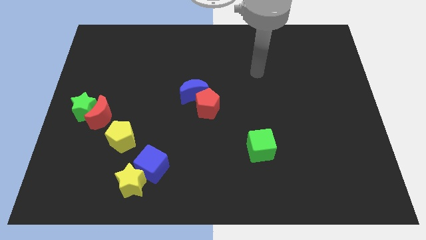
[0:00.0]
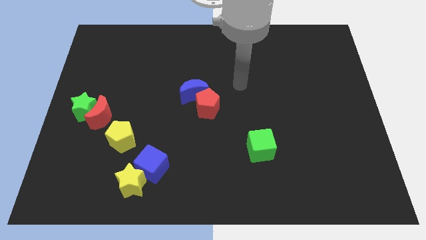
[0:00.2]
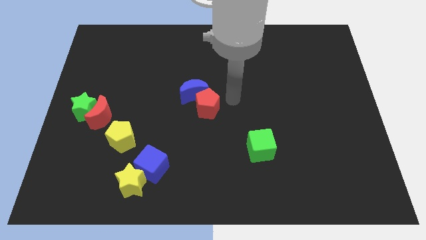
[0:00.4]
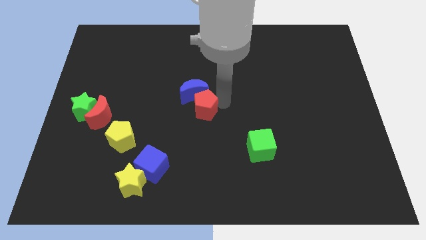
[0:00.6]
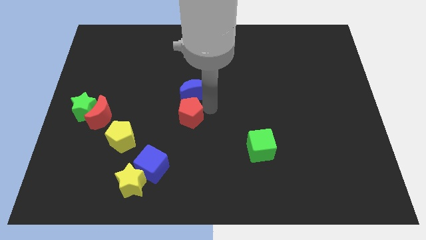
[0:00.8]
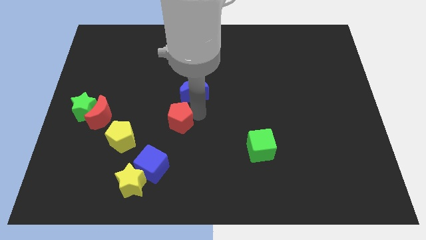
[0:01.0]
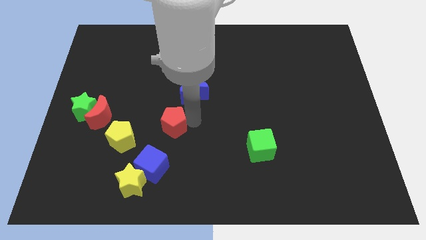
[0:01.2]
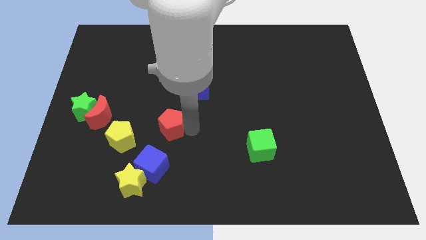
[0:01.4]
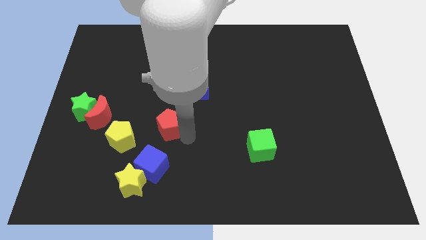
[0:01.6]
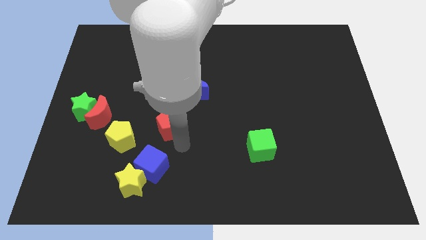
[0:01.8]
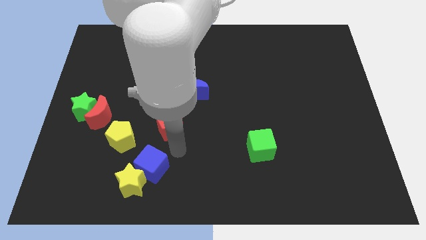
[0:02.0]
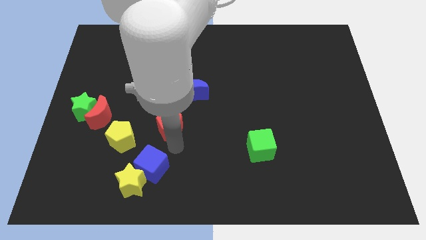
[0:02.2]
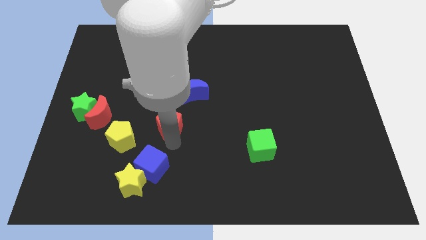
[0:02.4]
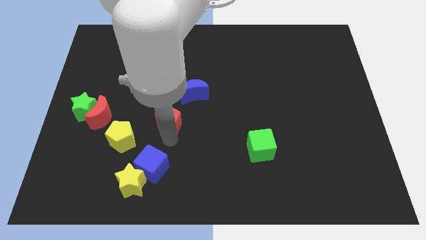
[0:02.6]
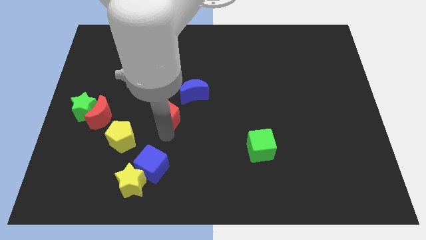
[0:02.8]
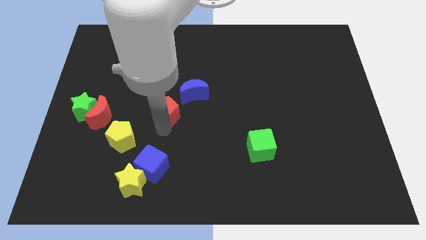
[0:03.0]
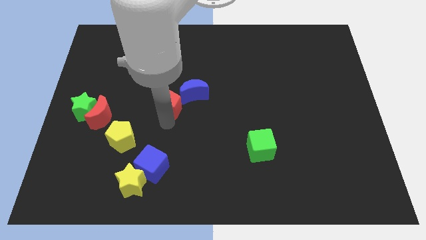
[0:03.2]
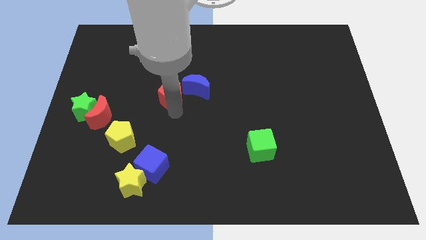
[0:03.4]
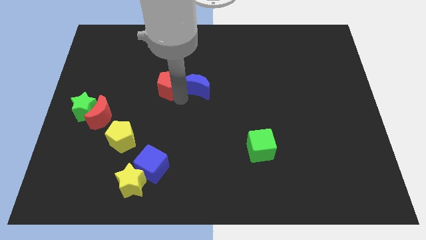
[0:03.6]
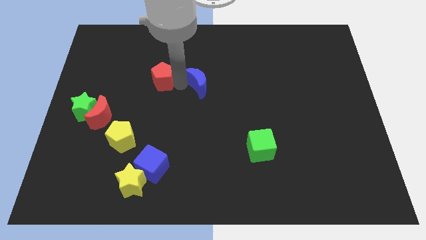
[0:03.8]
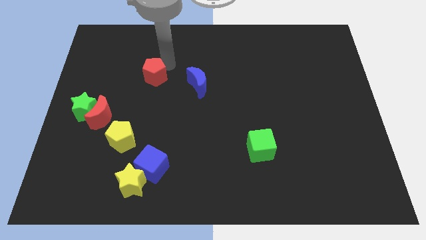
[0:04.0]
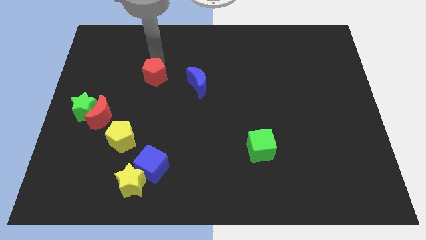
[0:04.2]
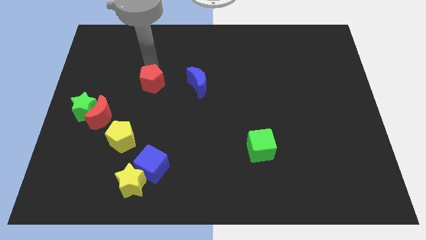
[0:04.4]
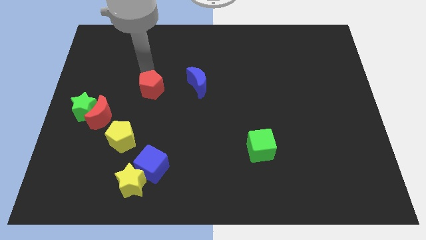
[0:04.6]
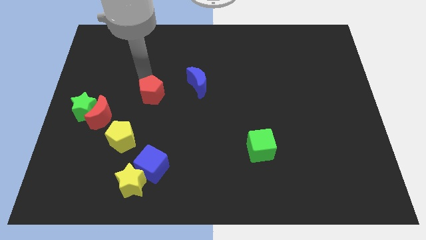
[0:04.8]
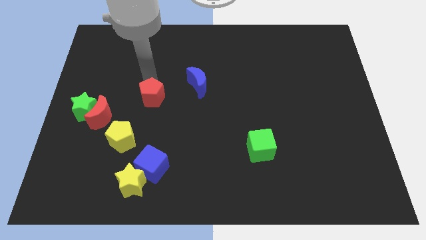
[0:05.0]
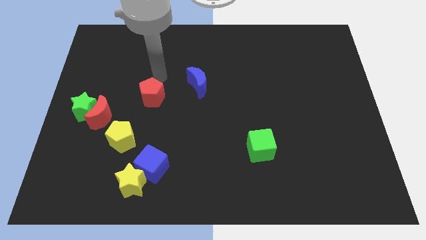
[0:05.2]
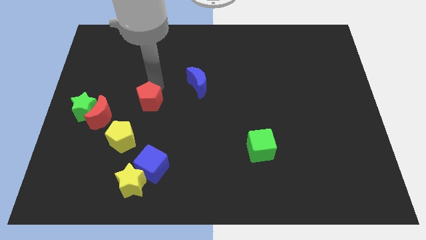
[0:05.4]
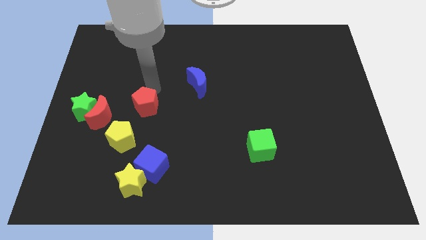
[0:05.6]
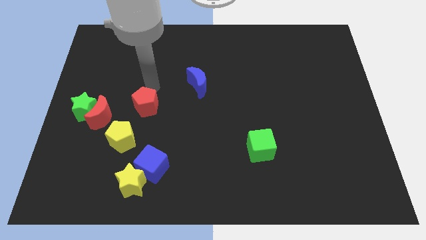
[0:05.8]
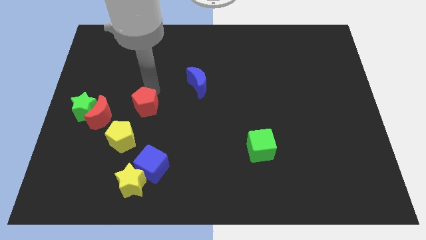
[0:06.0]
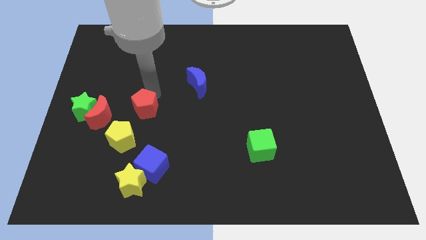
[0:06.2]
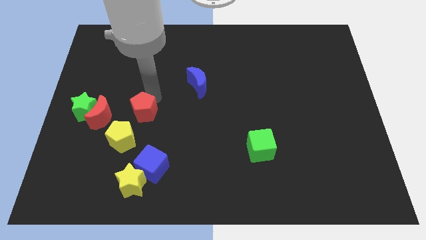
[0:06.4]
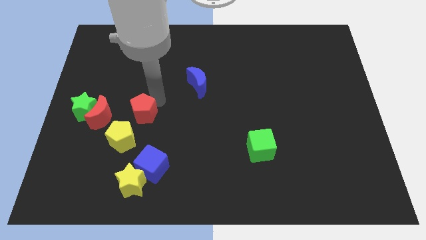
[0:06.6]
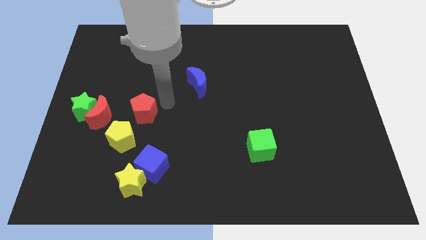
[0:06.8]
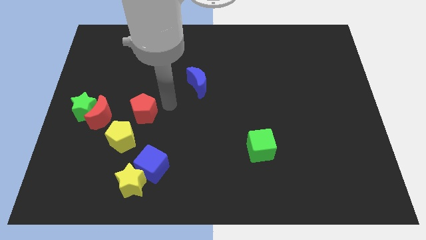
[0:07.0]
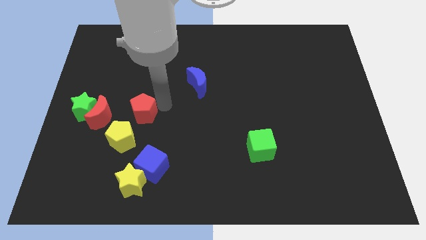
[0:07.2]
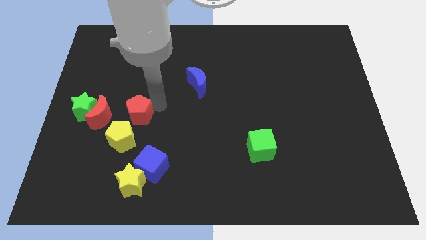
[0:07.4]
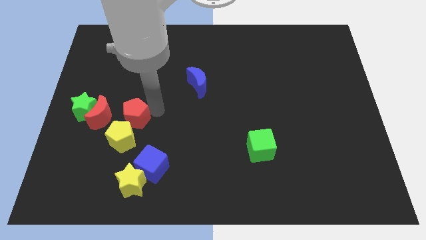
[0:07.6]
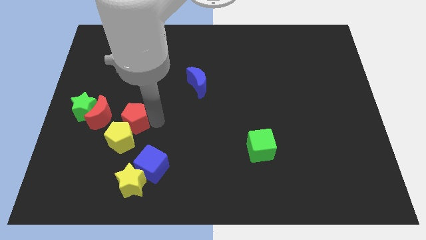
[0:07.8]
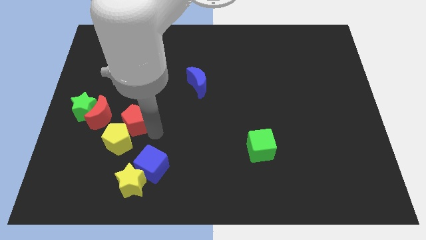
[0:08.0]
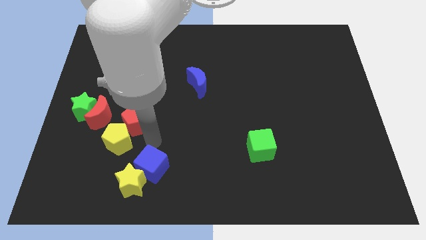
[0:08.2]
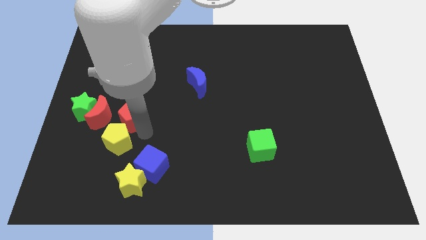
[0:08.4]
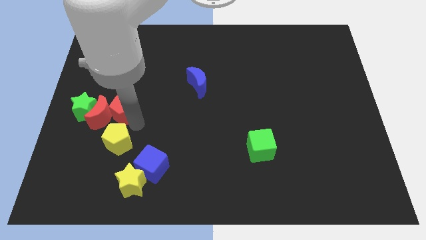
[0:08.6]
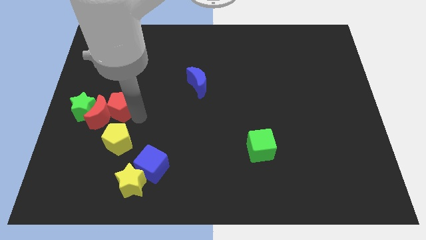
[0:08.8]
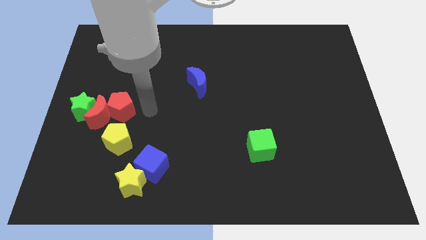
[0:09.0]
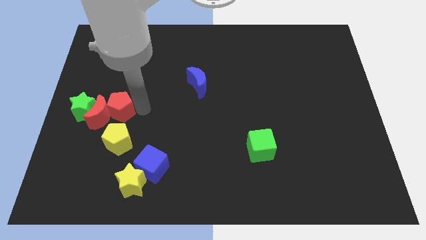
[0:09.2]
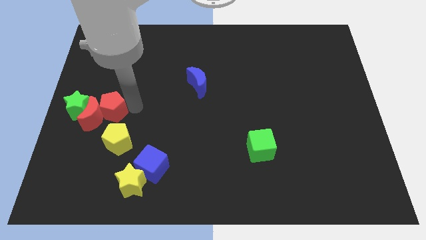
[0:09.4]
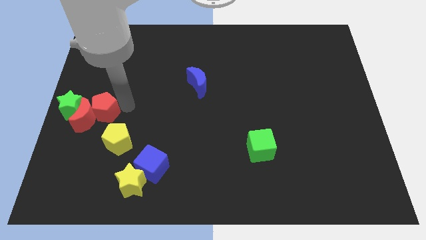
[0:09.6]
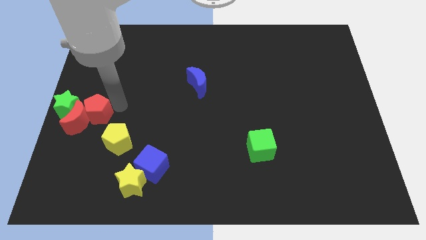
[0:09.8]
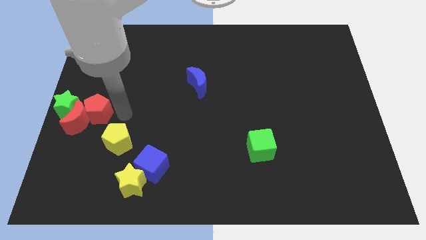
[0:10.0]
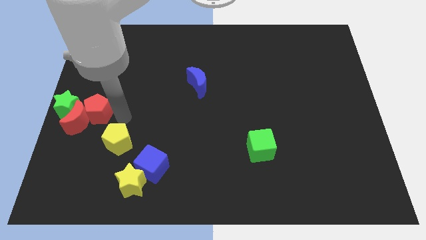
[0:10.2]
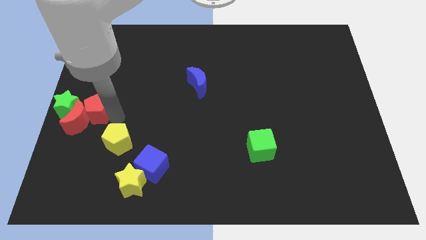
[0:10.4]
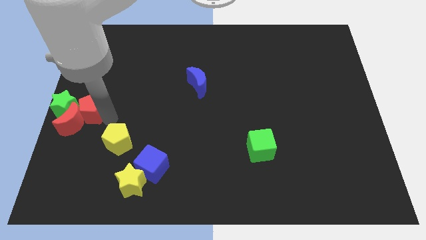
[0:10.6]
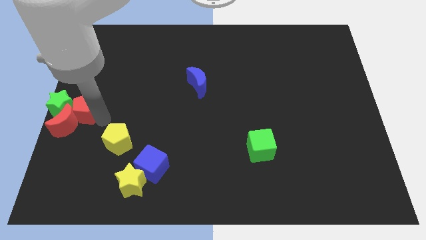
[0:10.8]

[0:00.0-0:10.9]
move the red pentagon towards the green star

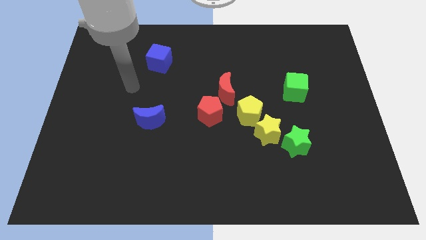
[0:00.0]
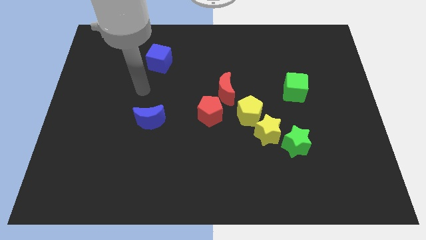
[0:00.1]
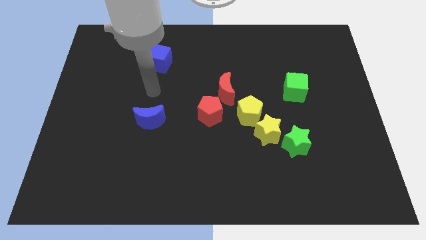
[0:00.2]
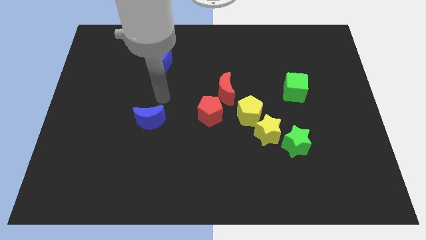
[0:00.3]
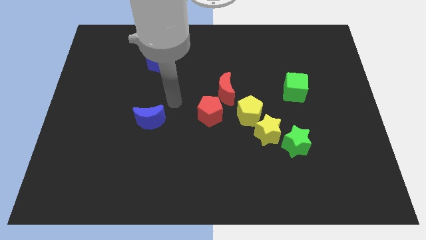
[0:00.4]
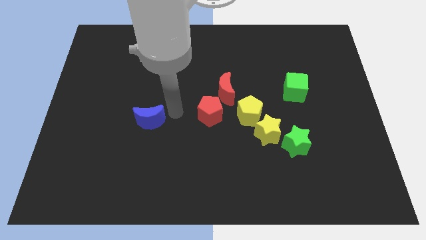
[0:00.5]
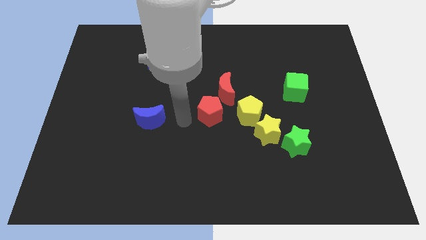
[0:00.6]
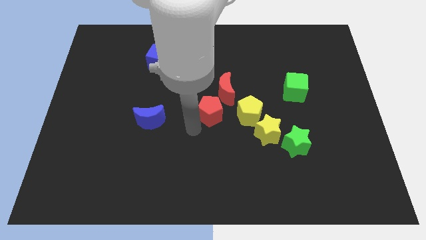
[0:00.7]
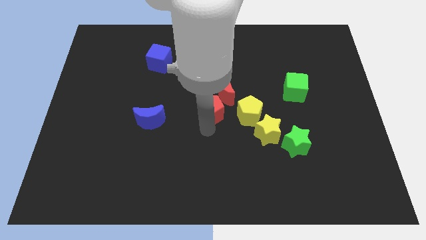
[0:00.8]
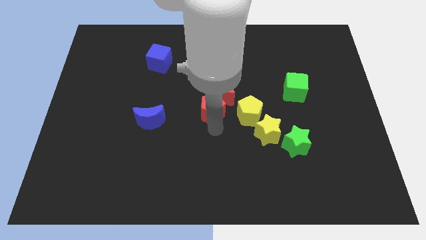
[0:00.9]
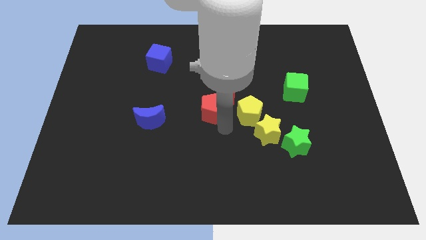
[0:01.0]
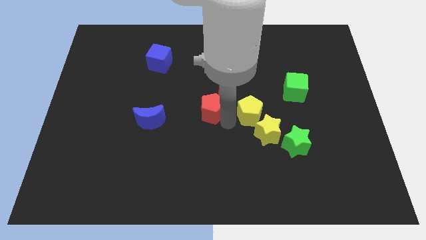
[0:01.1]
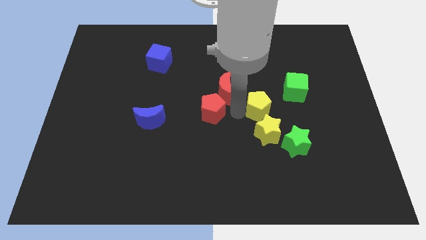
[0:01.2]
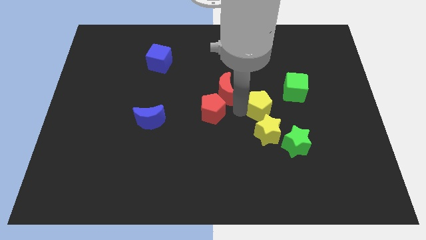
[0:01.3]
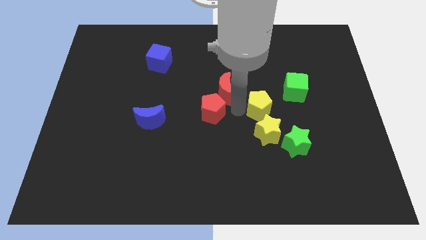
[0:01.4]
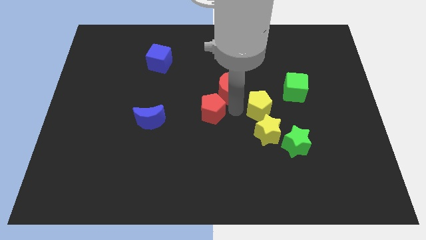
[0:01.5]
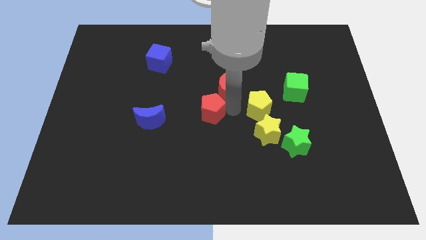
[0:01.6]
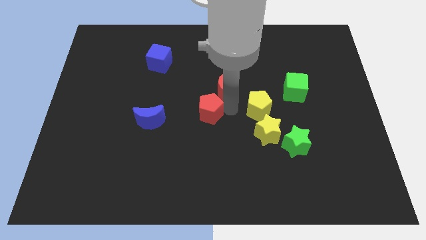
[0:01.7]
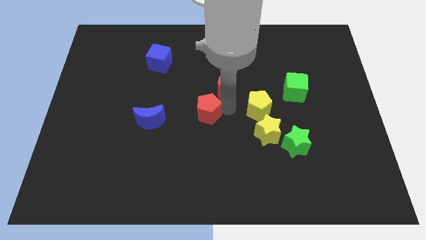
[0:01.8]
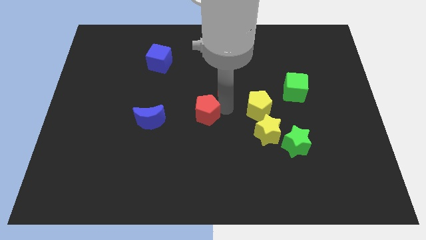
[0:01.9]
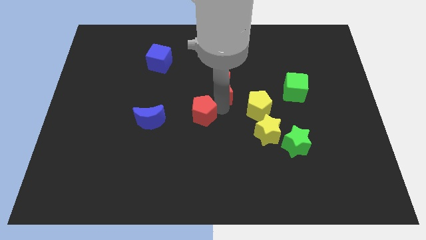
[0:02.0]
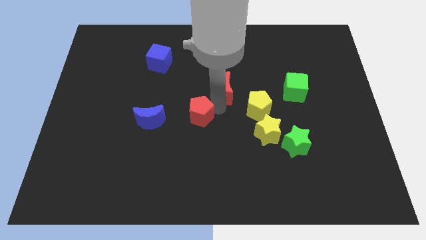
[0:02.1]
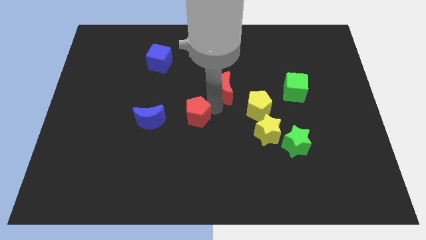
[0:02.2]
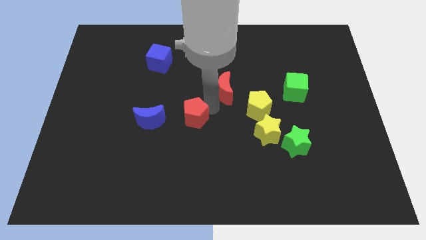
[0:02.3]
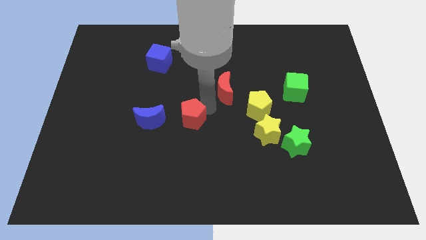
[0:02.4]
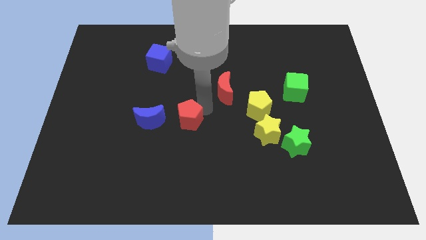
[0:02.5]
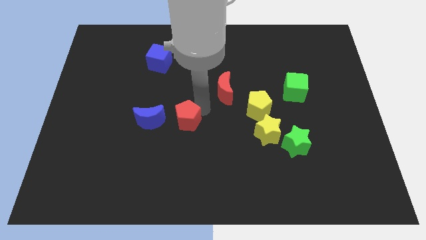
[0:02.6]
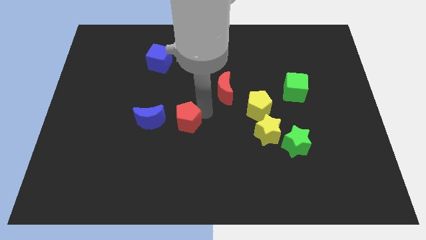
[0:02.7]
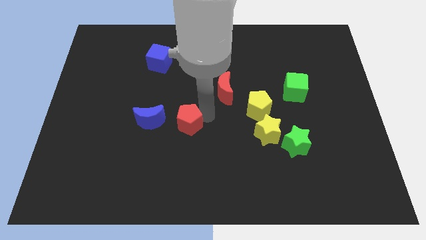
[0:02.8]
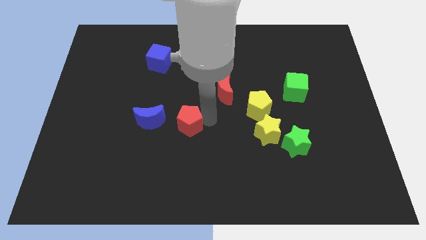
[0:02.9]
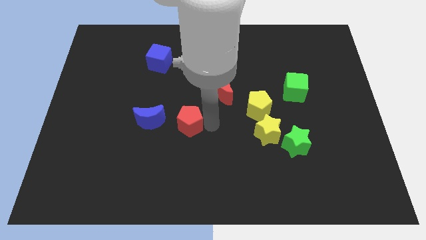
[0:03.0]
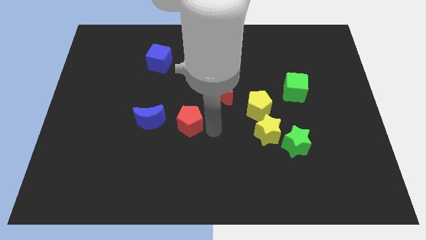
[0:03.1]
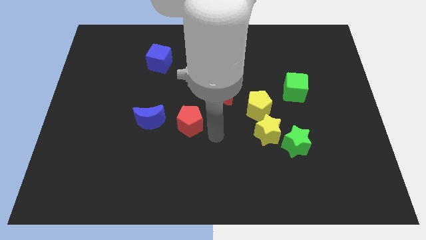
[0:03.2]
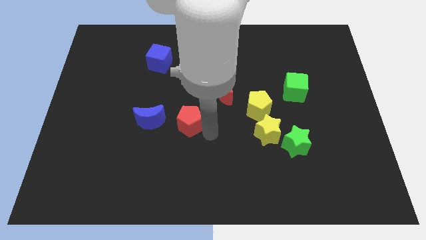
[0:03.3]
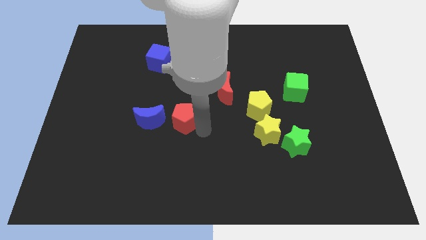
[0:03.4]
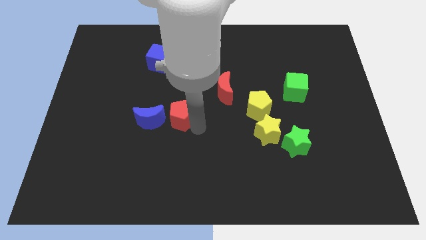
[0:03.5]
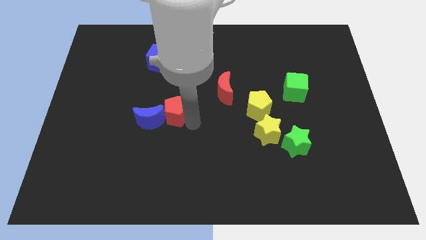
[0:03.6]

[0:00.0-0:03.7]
push the red pentagon next to the blue moon
